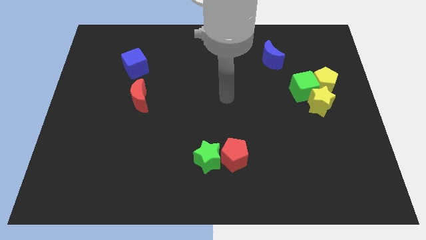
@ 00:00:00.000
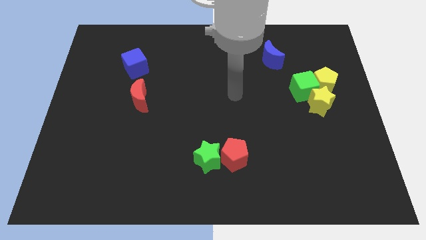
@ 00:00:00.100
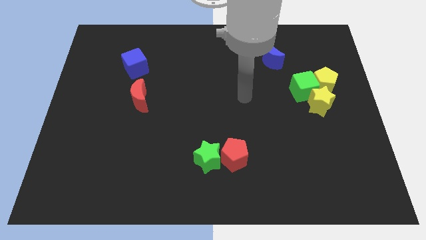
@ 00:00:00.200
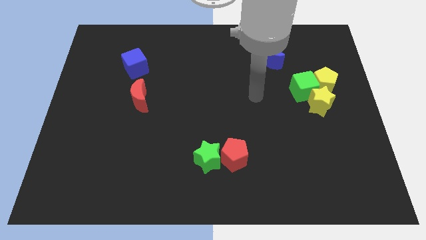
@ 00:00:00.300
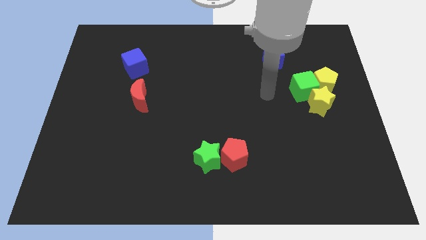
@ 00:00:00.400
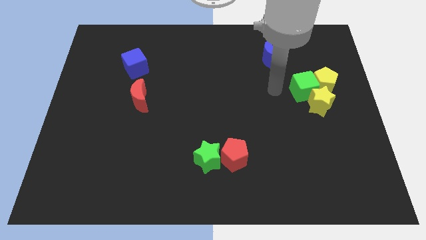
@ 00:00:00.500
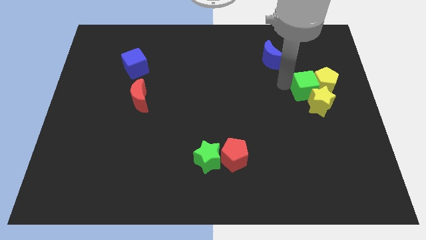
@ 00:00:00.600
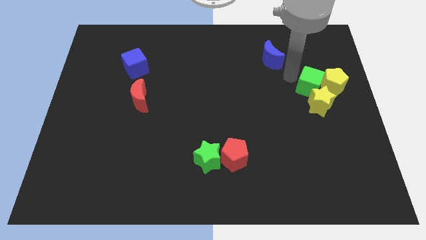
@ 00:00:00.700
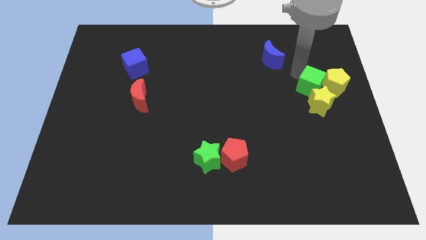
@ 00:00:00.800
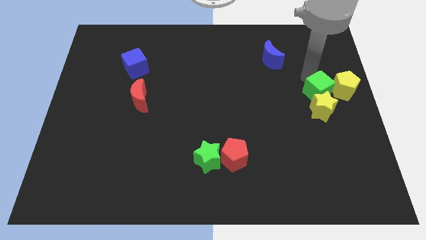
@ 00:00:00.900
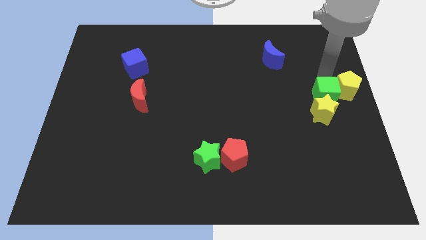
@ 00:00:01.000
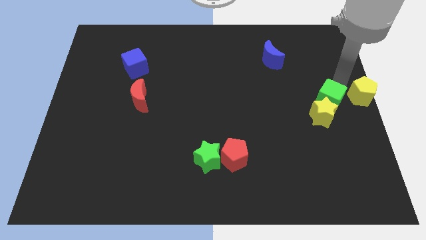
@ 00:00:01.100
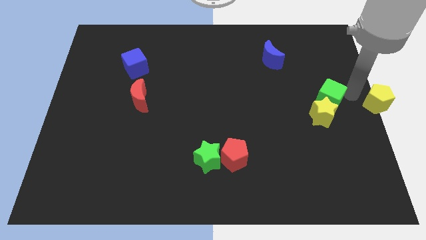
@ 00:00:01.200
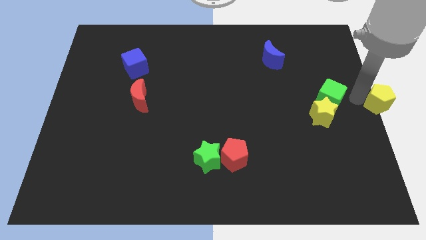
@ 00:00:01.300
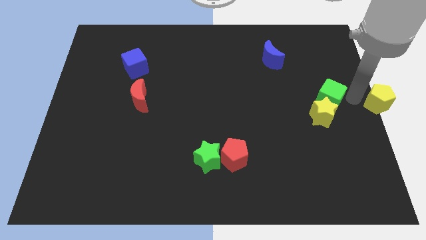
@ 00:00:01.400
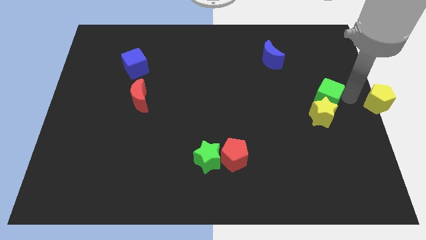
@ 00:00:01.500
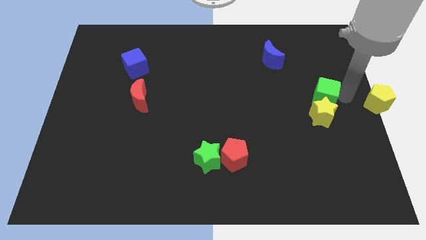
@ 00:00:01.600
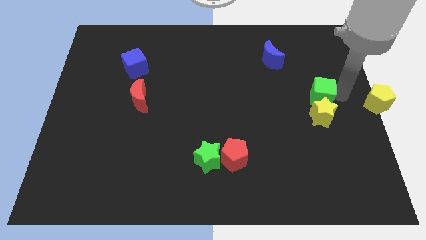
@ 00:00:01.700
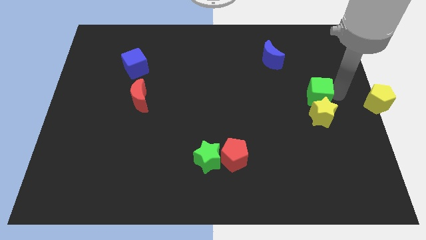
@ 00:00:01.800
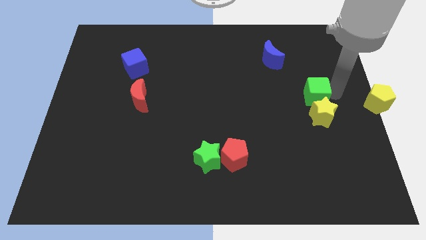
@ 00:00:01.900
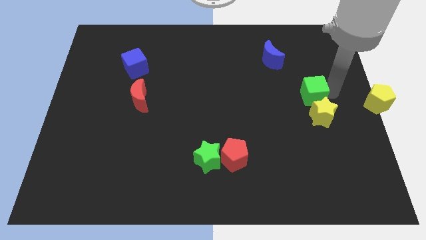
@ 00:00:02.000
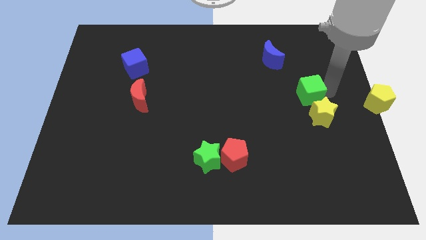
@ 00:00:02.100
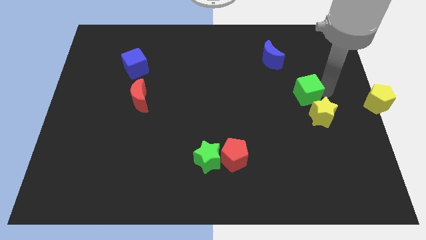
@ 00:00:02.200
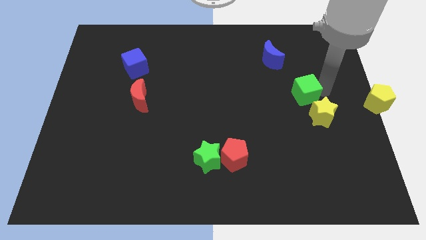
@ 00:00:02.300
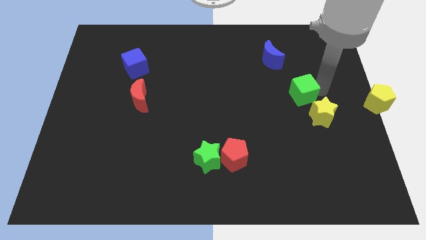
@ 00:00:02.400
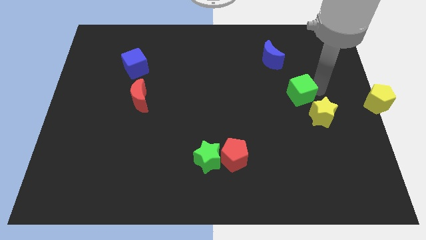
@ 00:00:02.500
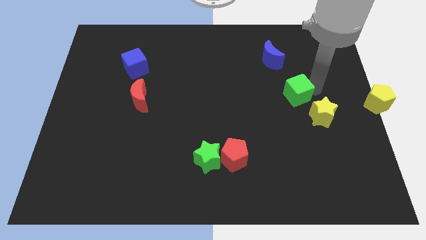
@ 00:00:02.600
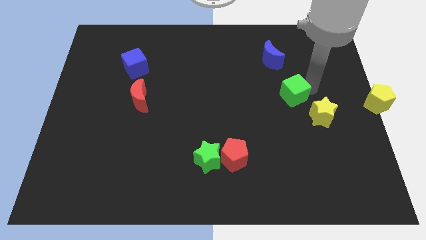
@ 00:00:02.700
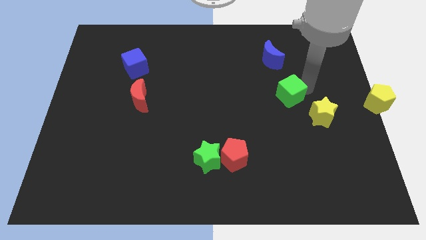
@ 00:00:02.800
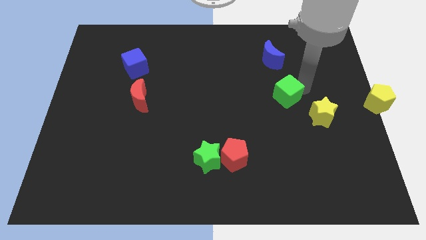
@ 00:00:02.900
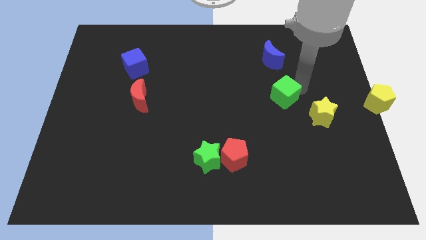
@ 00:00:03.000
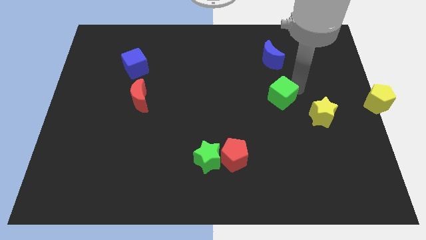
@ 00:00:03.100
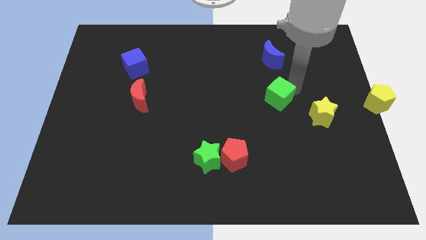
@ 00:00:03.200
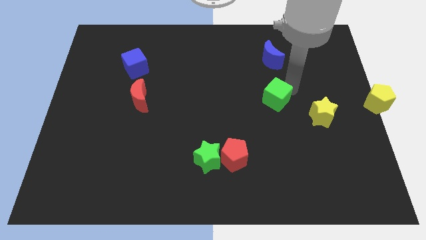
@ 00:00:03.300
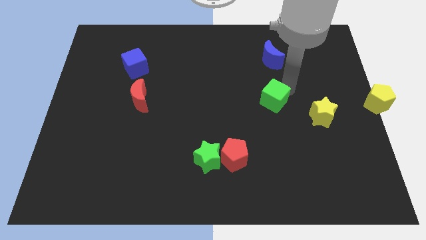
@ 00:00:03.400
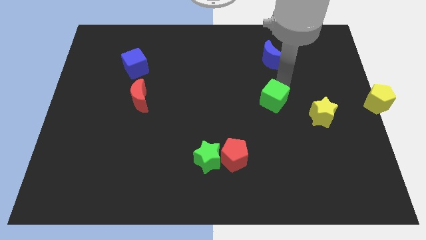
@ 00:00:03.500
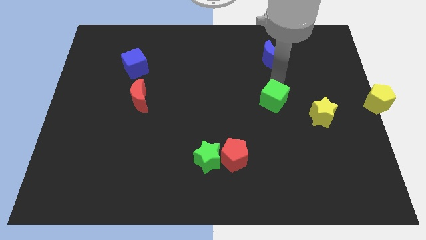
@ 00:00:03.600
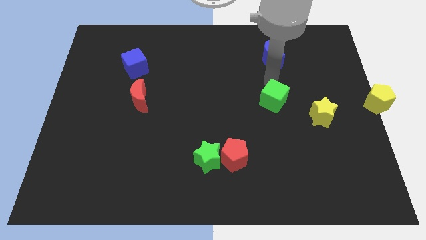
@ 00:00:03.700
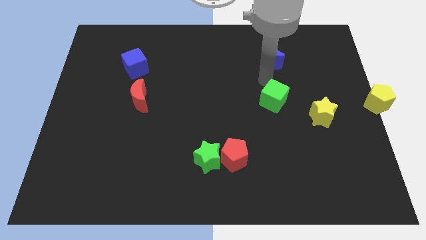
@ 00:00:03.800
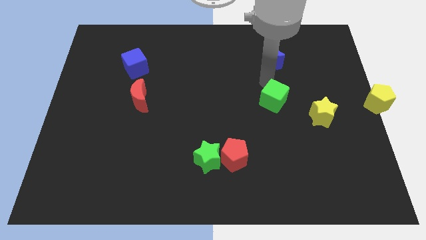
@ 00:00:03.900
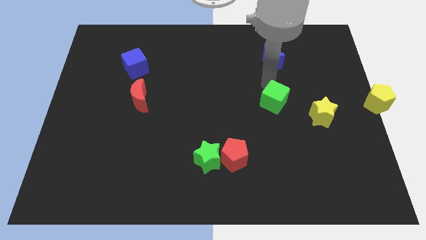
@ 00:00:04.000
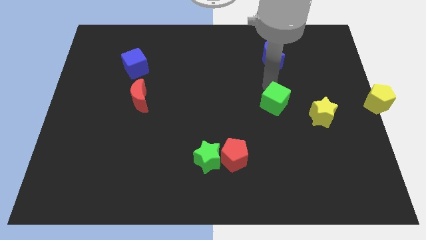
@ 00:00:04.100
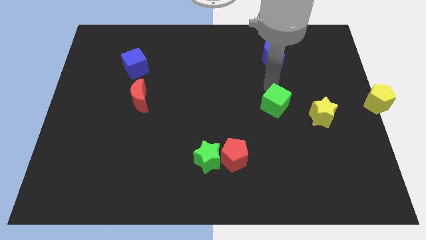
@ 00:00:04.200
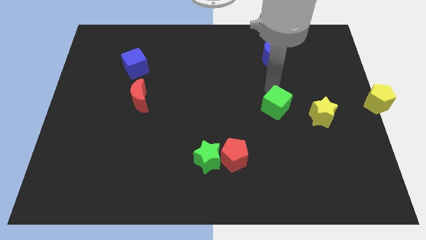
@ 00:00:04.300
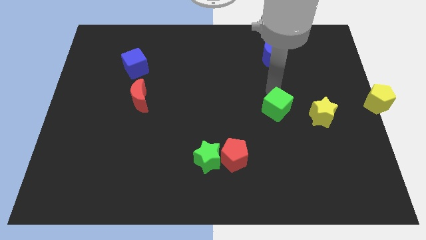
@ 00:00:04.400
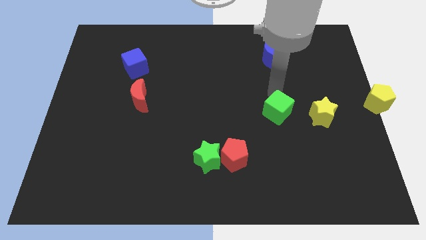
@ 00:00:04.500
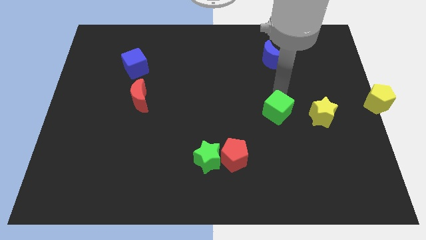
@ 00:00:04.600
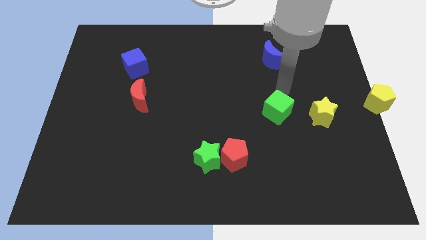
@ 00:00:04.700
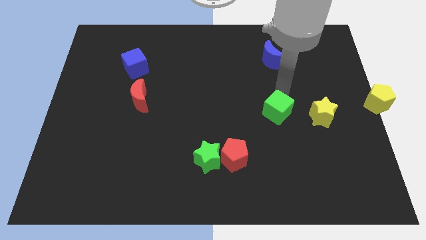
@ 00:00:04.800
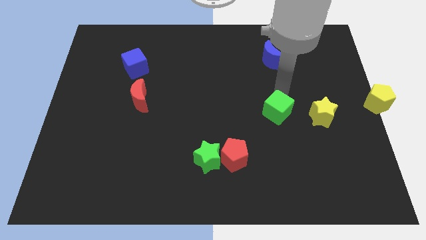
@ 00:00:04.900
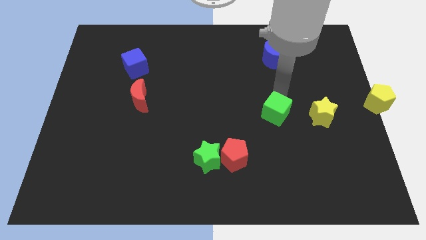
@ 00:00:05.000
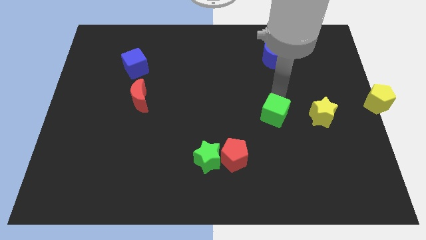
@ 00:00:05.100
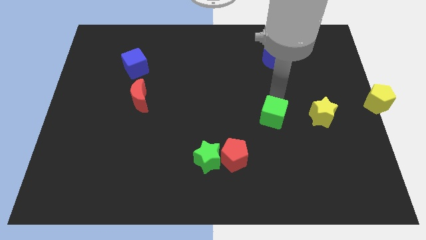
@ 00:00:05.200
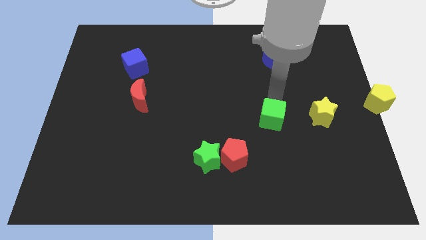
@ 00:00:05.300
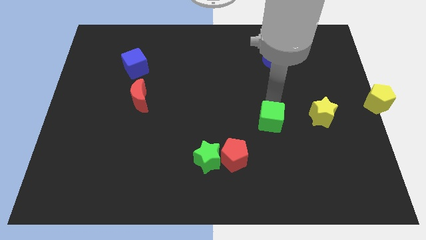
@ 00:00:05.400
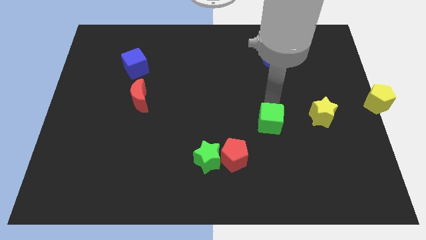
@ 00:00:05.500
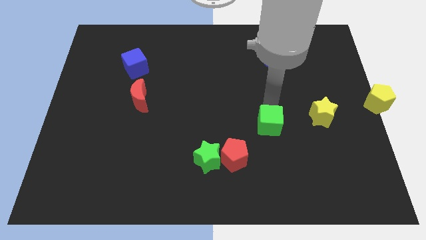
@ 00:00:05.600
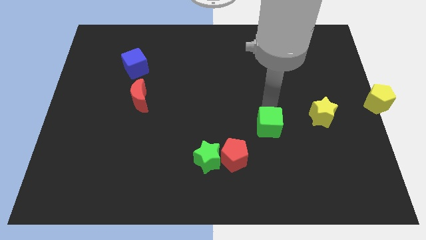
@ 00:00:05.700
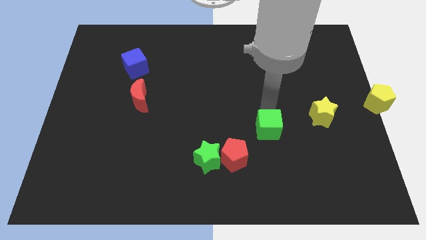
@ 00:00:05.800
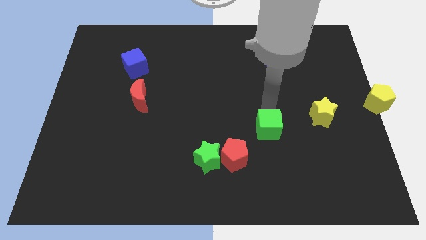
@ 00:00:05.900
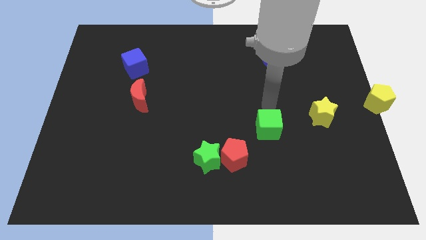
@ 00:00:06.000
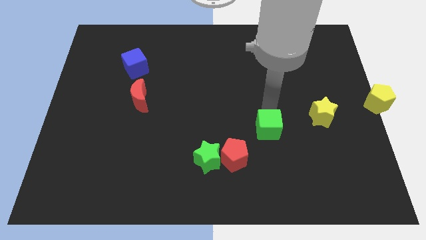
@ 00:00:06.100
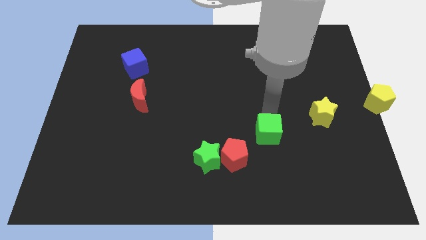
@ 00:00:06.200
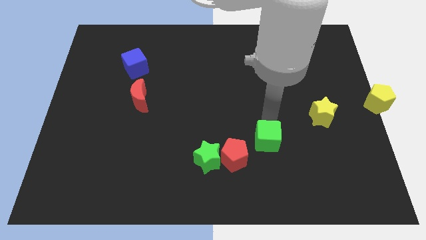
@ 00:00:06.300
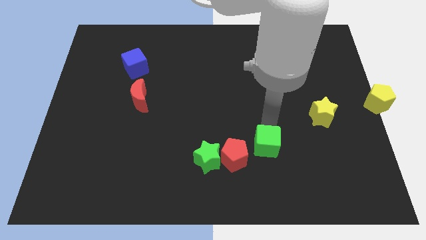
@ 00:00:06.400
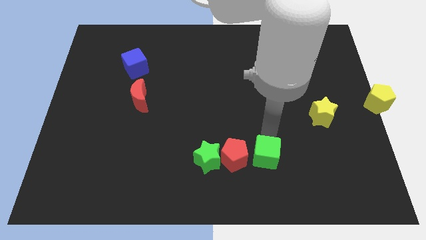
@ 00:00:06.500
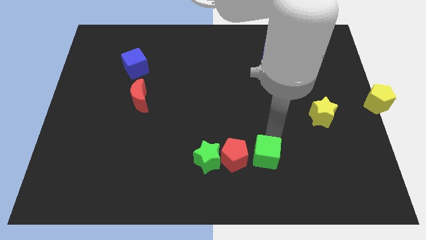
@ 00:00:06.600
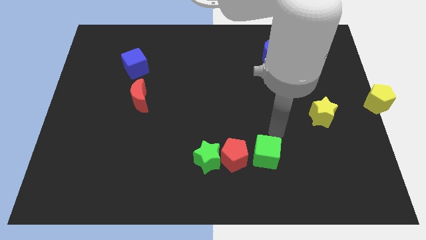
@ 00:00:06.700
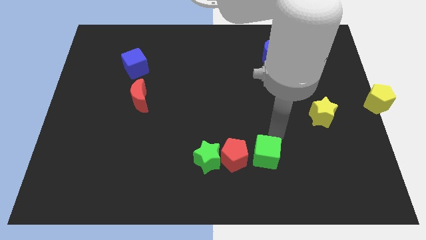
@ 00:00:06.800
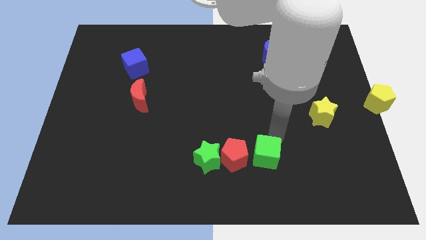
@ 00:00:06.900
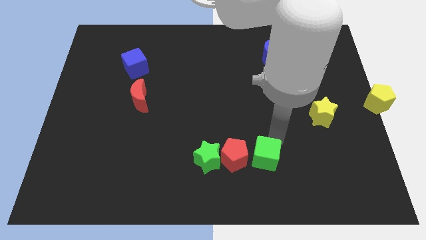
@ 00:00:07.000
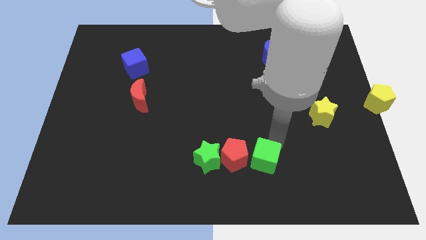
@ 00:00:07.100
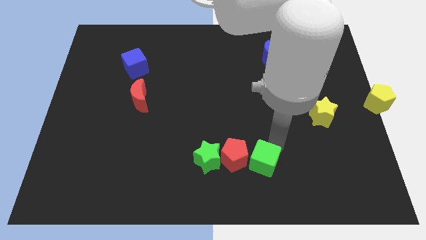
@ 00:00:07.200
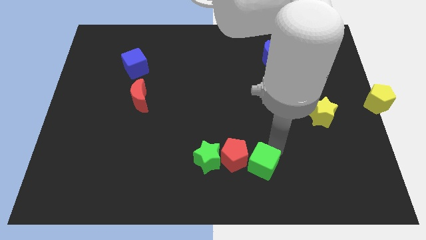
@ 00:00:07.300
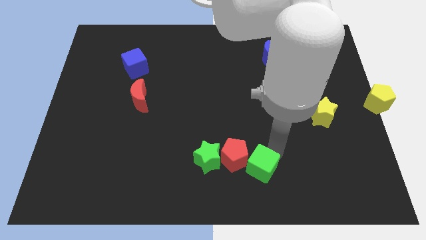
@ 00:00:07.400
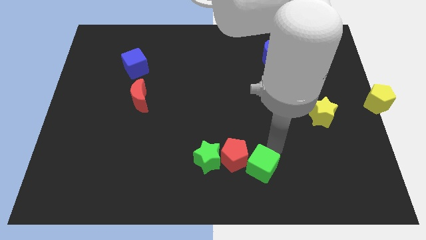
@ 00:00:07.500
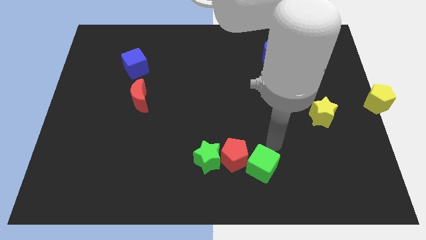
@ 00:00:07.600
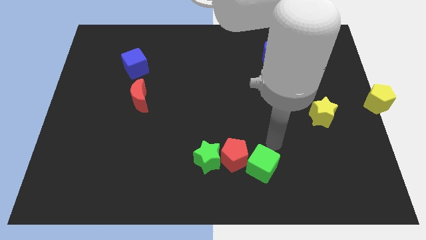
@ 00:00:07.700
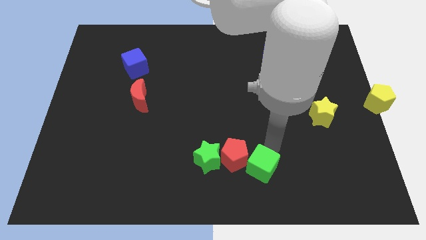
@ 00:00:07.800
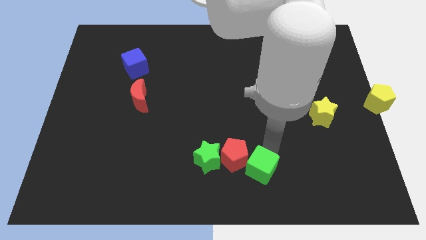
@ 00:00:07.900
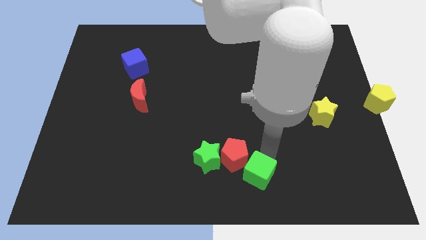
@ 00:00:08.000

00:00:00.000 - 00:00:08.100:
slide the green cube to the bottom
